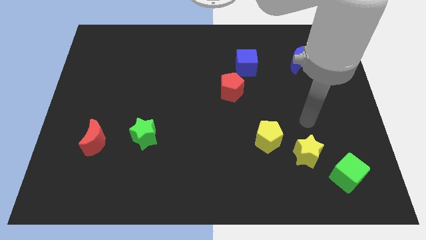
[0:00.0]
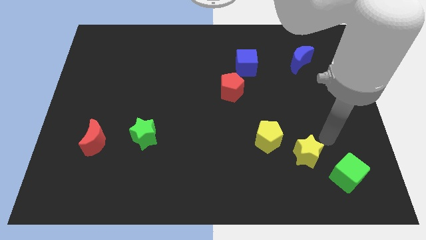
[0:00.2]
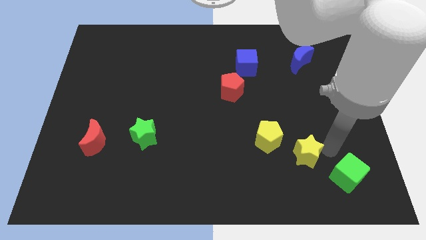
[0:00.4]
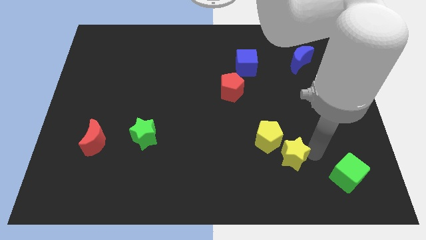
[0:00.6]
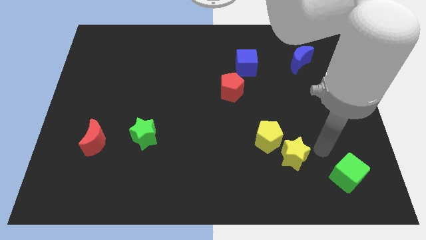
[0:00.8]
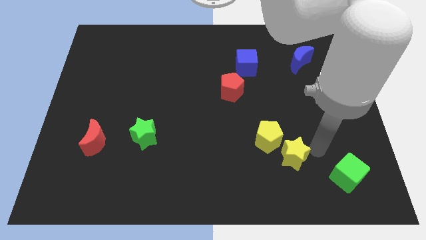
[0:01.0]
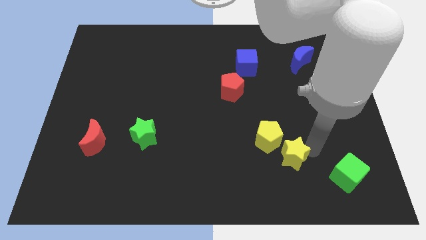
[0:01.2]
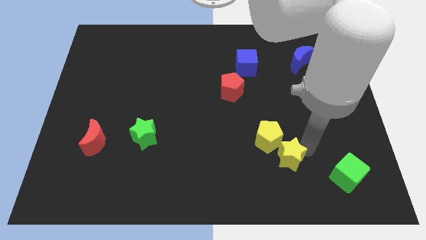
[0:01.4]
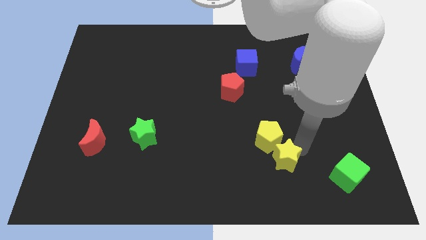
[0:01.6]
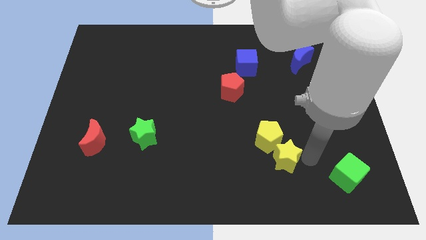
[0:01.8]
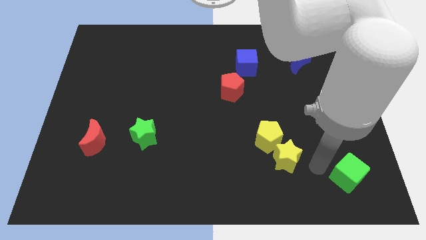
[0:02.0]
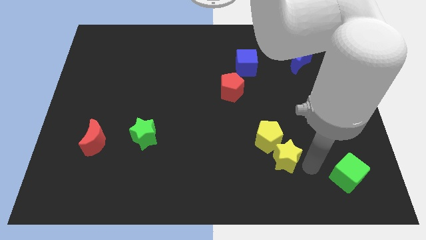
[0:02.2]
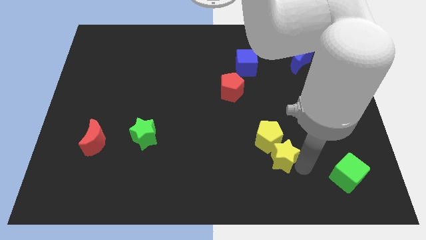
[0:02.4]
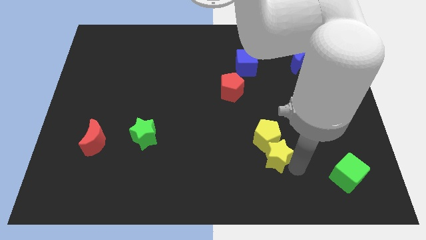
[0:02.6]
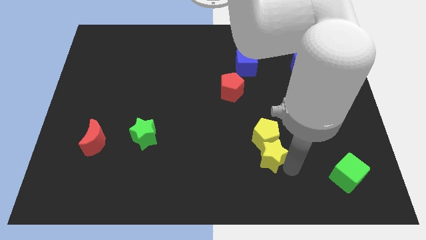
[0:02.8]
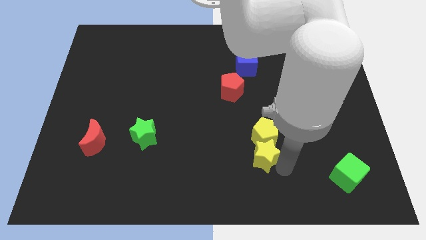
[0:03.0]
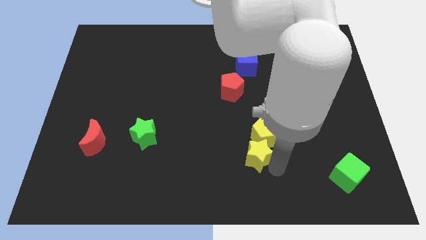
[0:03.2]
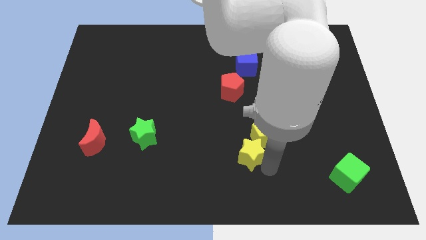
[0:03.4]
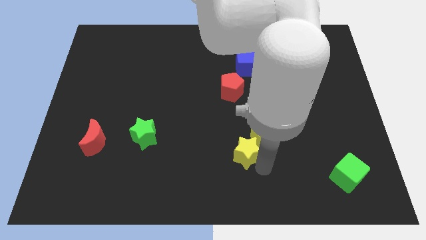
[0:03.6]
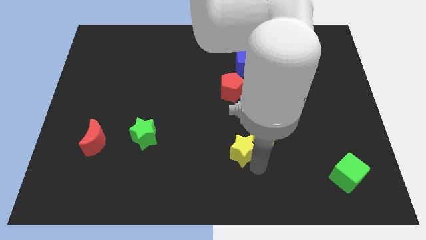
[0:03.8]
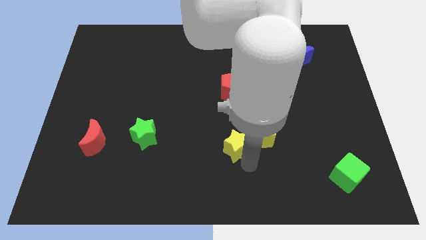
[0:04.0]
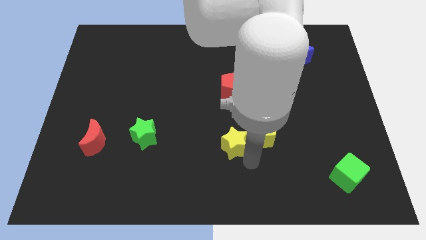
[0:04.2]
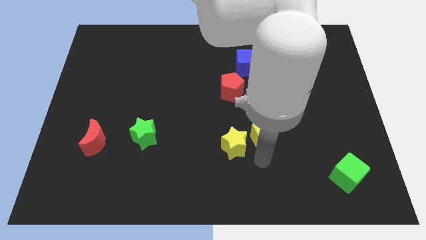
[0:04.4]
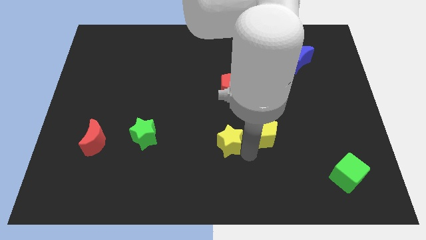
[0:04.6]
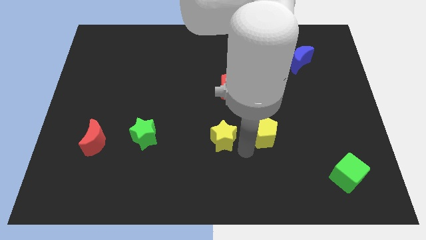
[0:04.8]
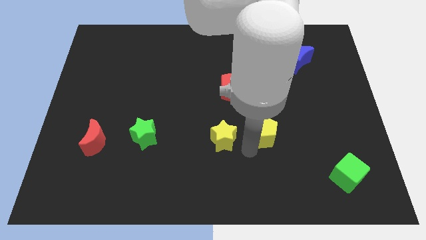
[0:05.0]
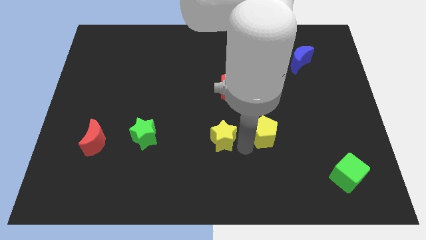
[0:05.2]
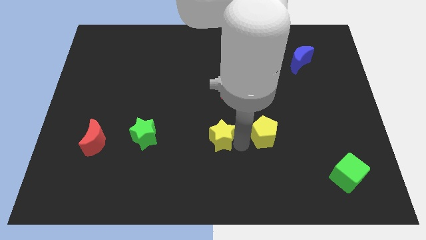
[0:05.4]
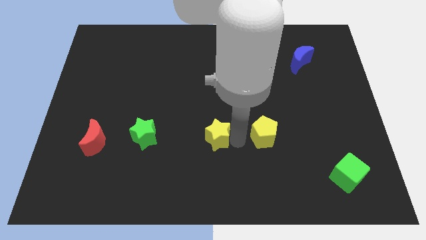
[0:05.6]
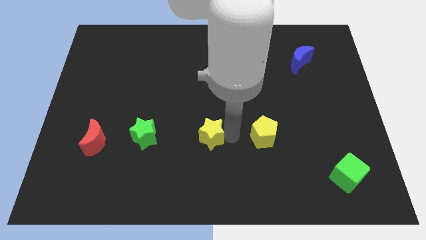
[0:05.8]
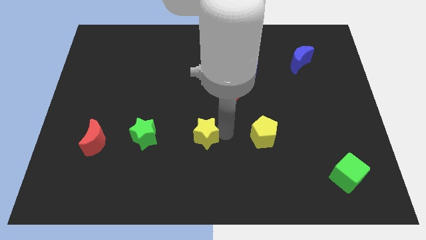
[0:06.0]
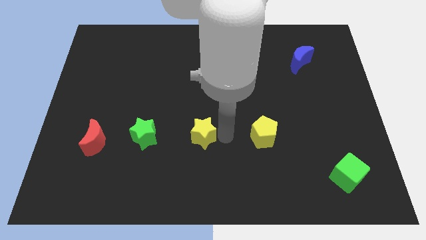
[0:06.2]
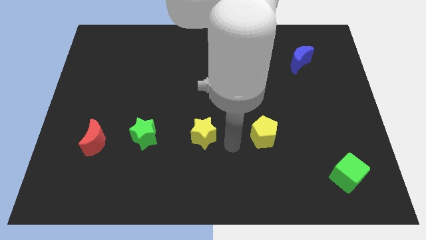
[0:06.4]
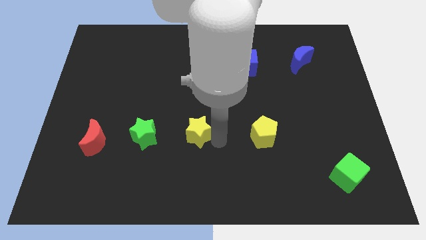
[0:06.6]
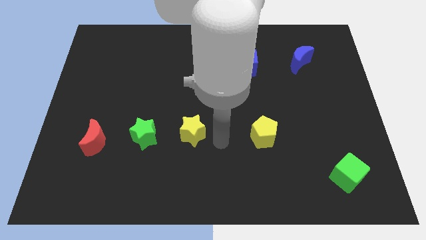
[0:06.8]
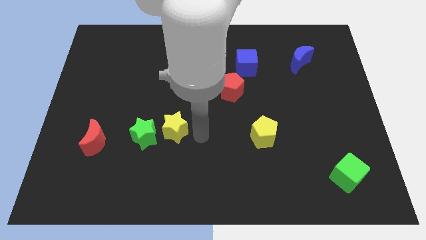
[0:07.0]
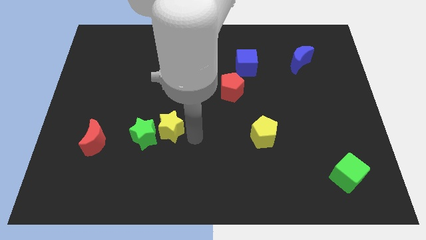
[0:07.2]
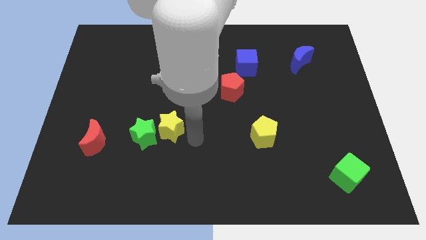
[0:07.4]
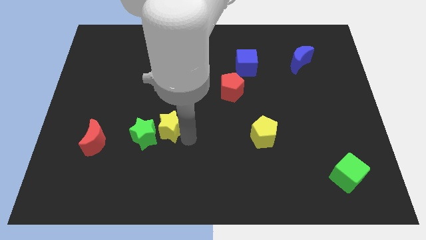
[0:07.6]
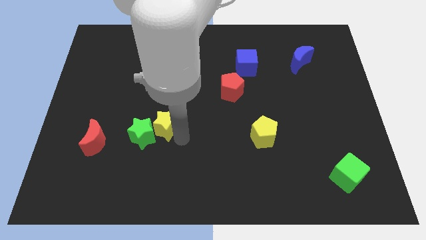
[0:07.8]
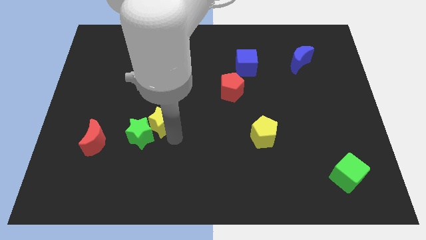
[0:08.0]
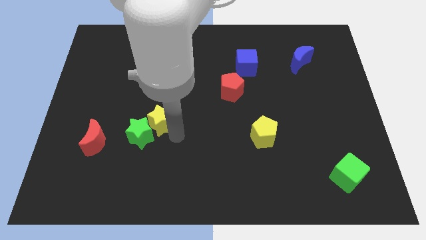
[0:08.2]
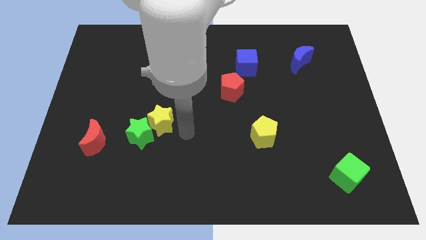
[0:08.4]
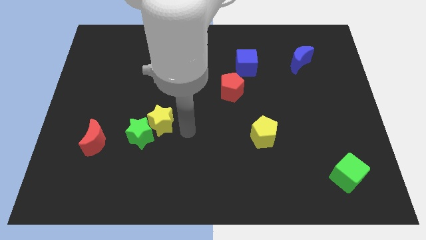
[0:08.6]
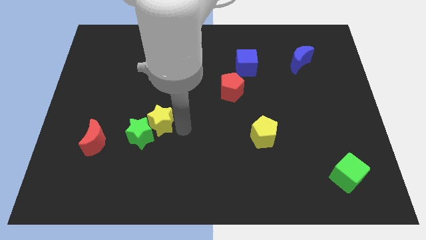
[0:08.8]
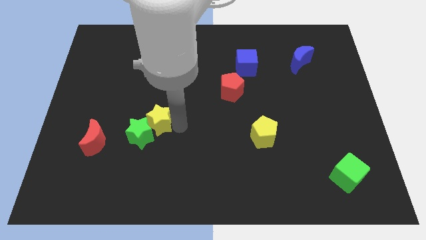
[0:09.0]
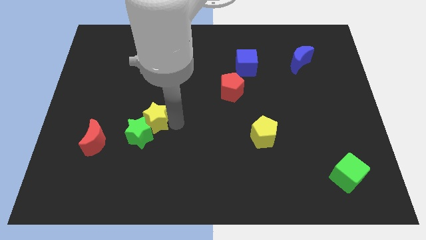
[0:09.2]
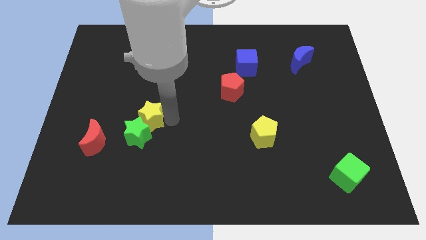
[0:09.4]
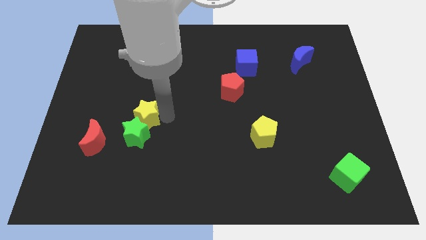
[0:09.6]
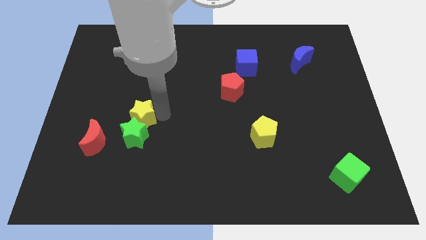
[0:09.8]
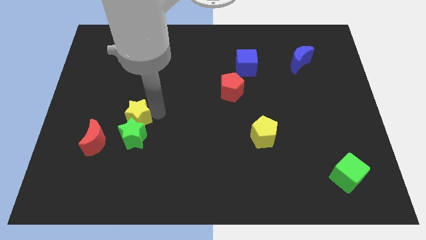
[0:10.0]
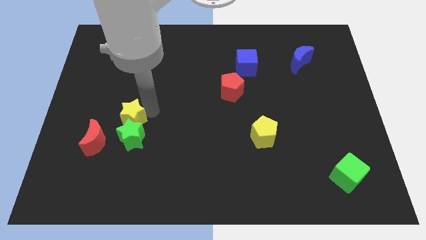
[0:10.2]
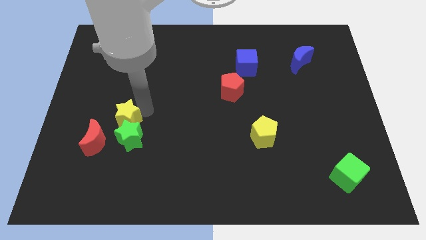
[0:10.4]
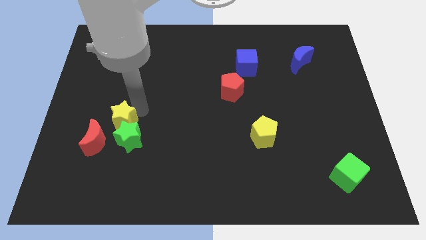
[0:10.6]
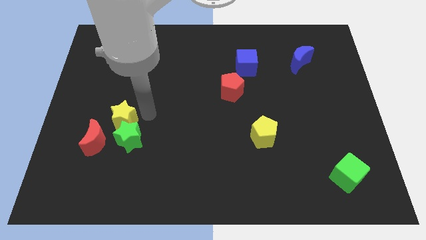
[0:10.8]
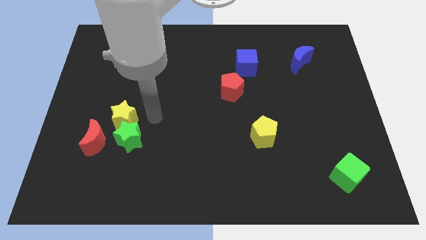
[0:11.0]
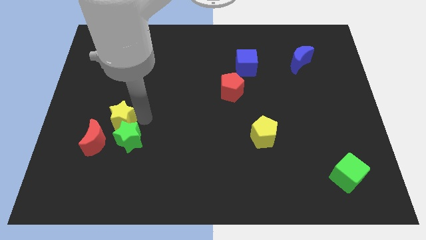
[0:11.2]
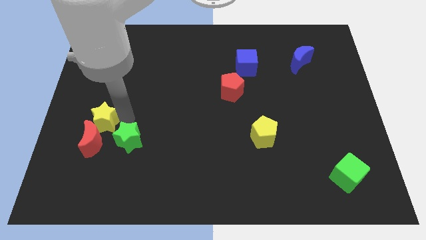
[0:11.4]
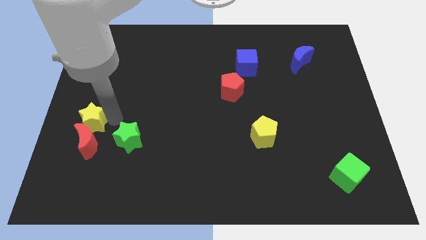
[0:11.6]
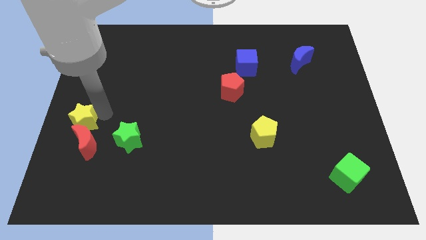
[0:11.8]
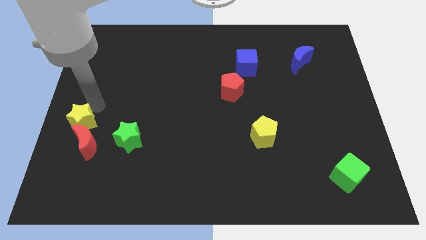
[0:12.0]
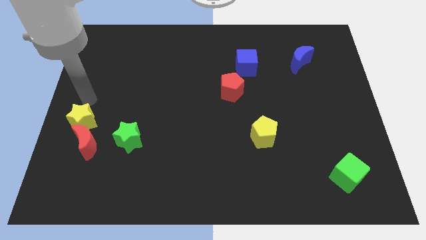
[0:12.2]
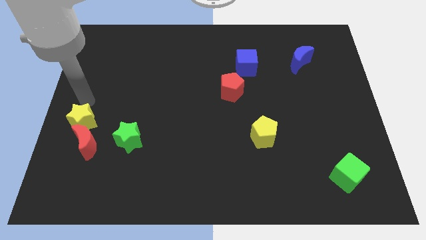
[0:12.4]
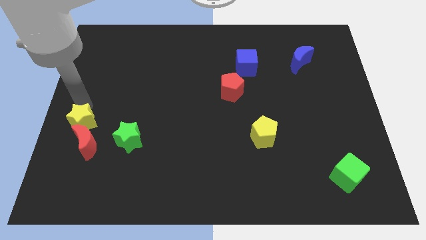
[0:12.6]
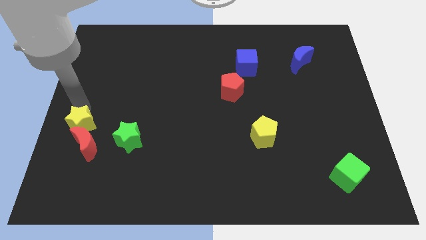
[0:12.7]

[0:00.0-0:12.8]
move the yellow star left of the green star

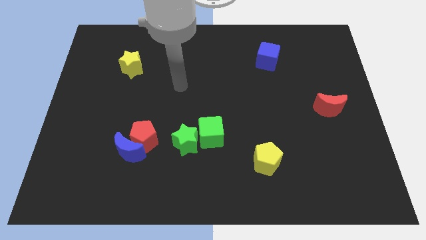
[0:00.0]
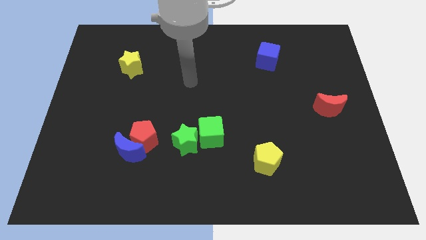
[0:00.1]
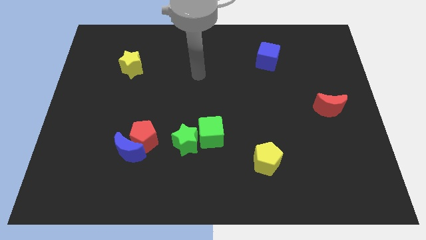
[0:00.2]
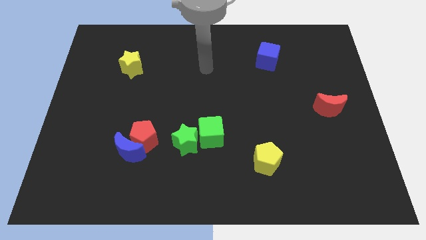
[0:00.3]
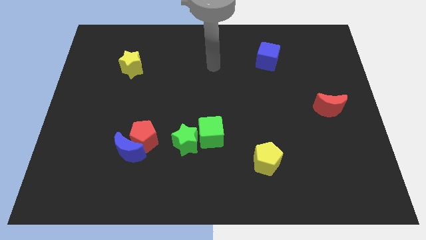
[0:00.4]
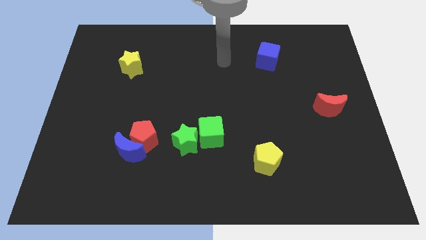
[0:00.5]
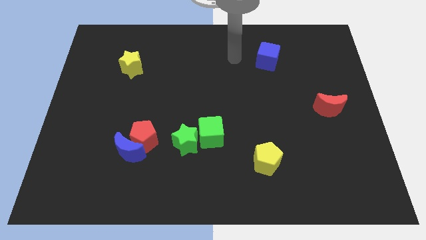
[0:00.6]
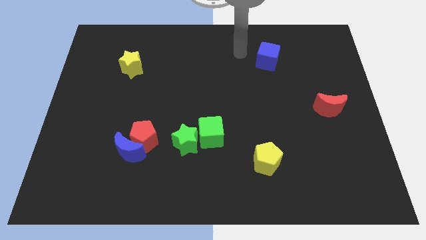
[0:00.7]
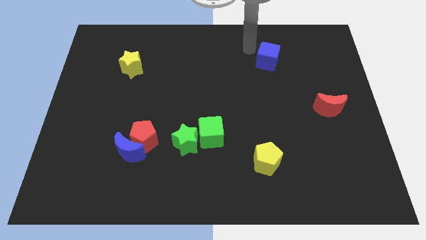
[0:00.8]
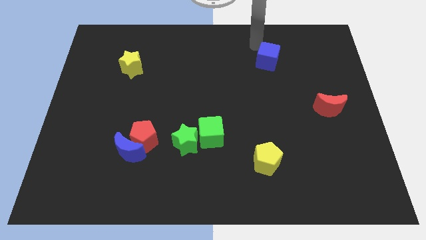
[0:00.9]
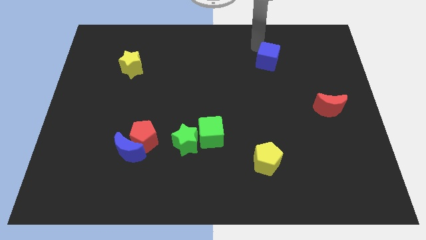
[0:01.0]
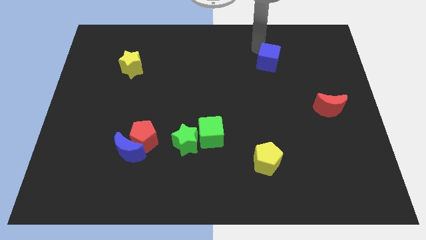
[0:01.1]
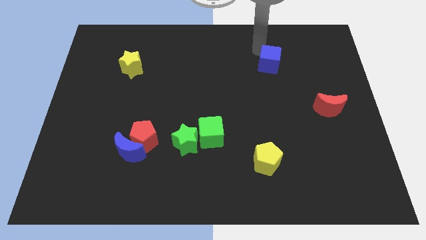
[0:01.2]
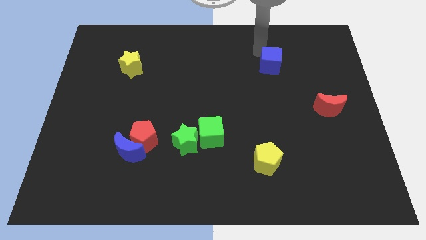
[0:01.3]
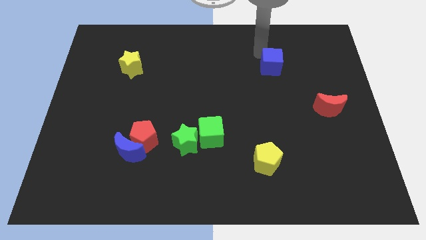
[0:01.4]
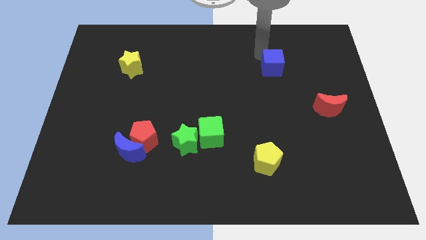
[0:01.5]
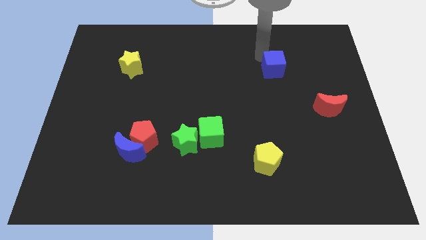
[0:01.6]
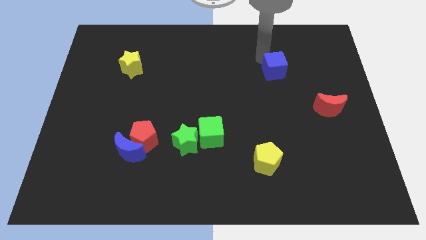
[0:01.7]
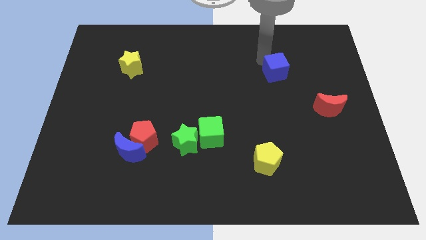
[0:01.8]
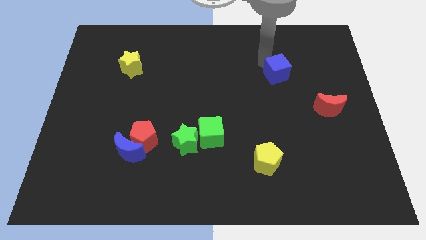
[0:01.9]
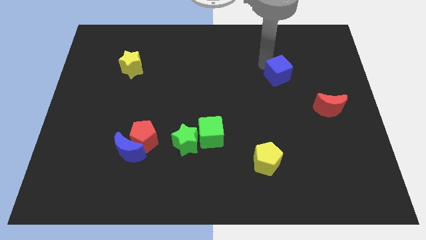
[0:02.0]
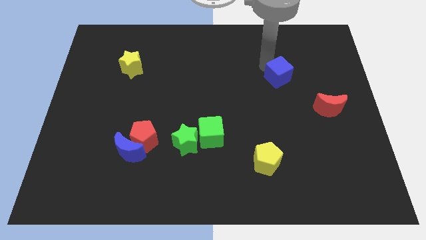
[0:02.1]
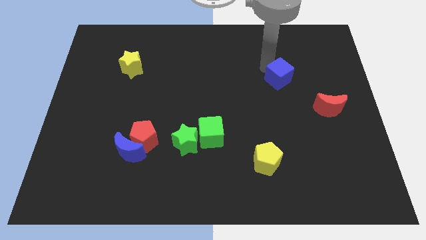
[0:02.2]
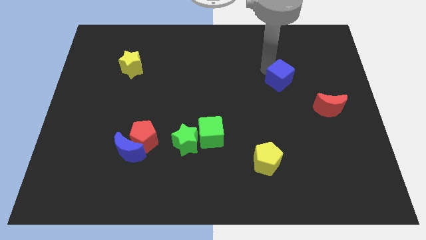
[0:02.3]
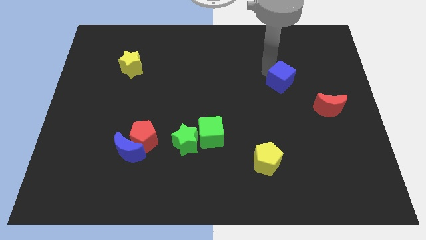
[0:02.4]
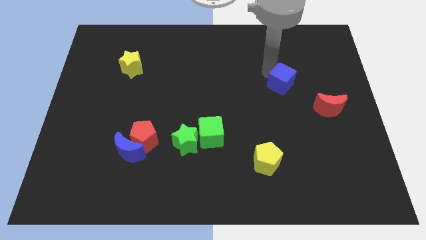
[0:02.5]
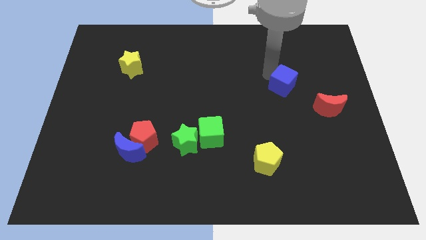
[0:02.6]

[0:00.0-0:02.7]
put the blue cube to the top left side of the red moon
